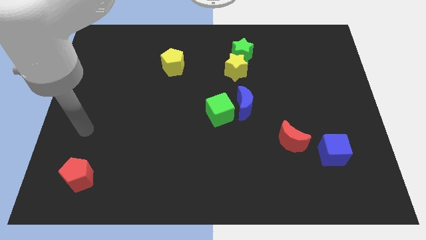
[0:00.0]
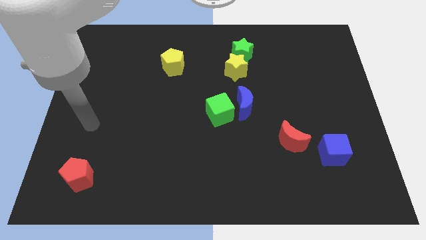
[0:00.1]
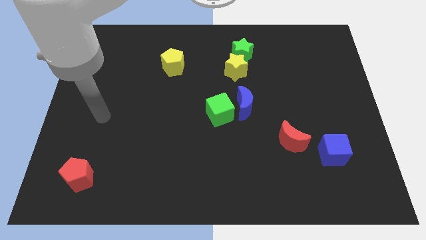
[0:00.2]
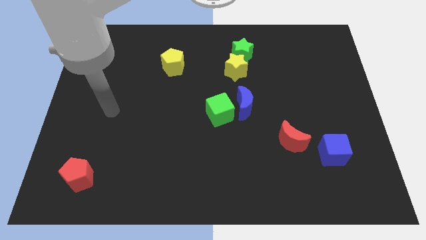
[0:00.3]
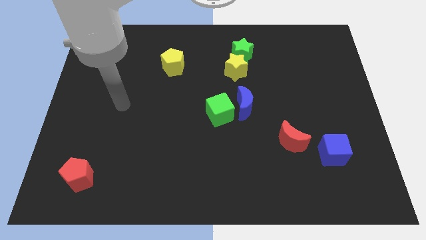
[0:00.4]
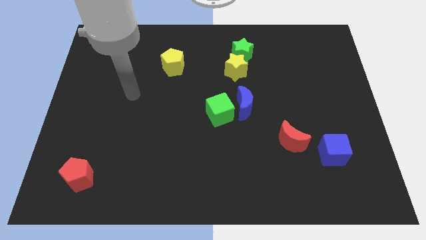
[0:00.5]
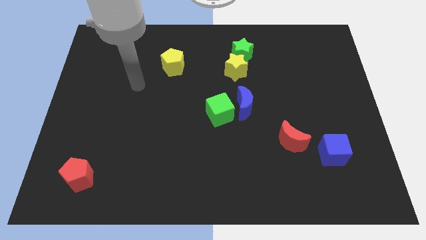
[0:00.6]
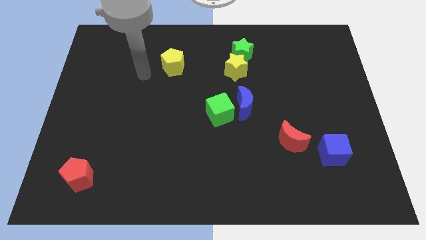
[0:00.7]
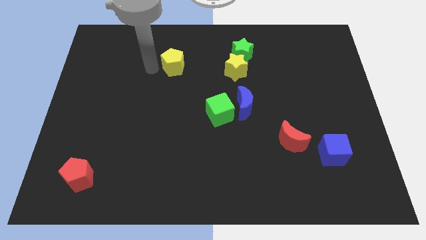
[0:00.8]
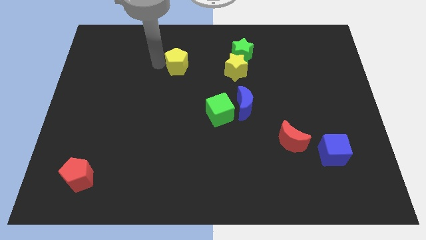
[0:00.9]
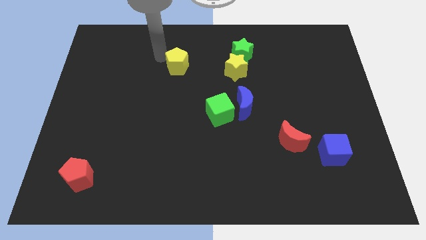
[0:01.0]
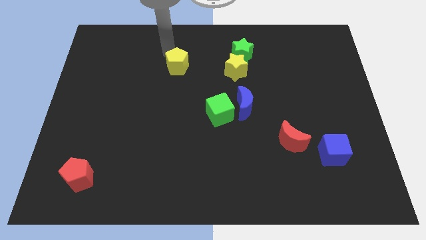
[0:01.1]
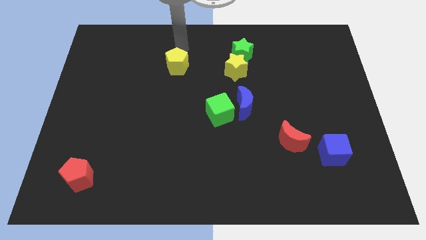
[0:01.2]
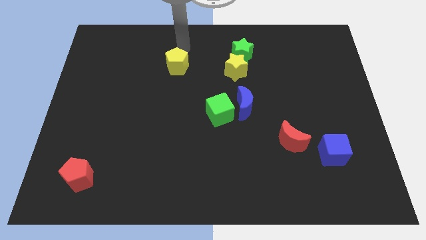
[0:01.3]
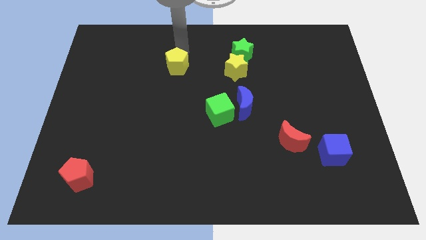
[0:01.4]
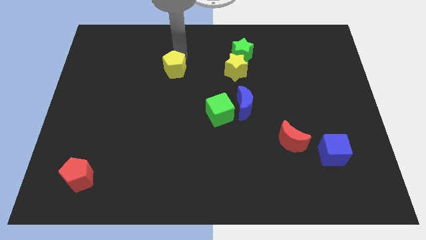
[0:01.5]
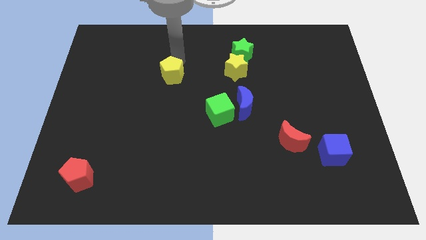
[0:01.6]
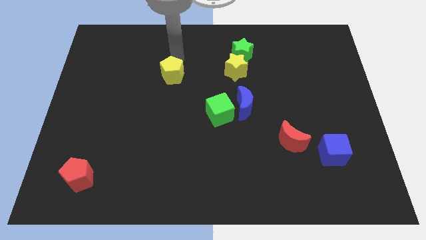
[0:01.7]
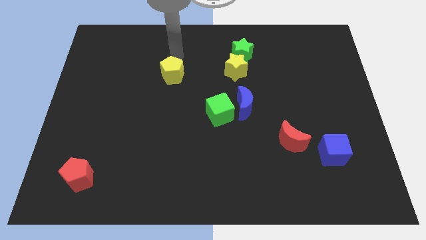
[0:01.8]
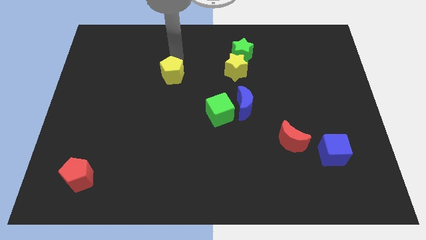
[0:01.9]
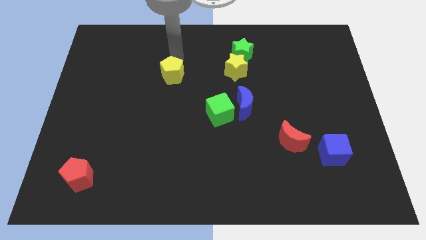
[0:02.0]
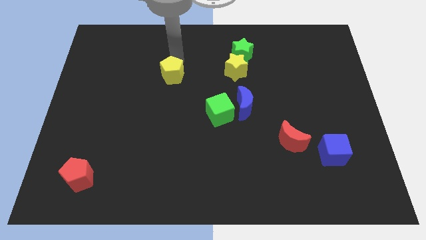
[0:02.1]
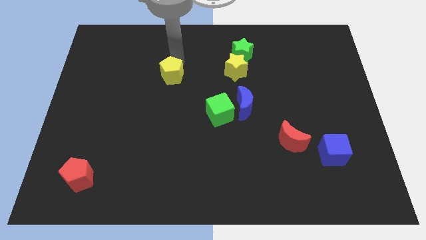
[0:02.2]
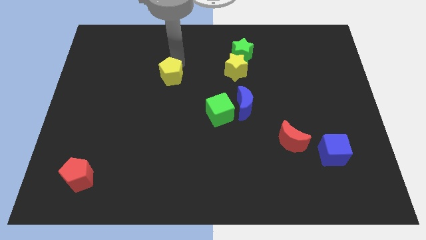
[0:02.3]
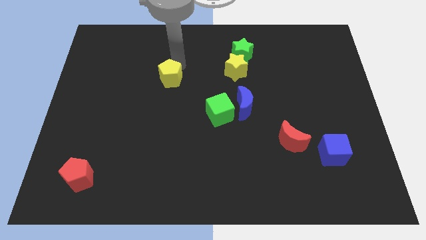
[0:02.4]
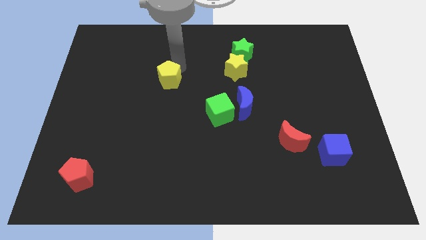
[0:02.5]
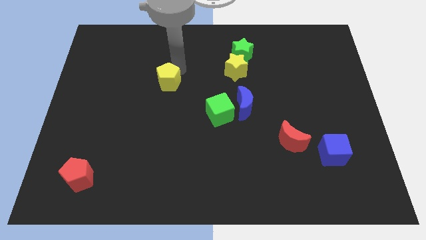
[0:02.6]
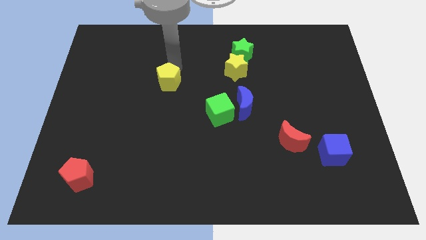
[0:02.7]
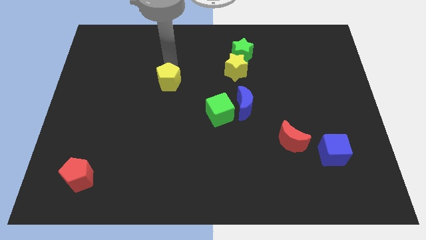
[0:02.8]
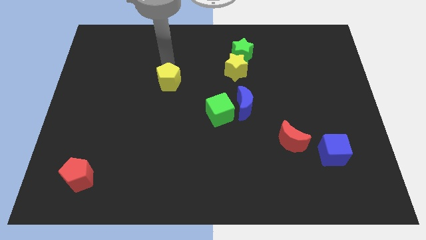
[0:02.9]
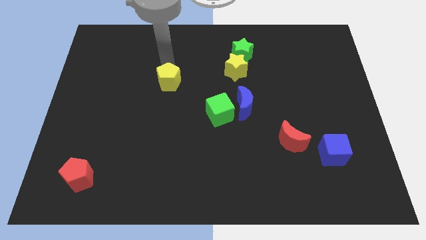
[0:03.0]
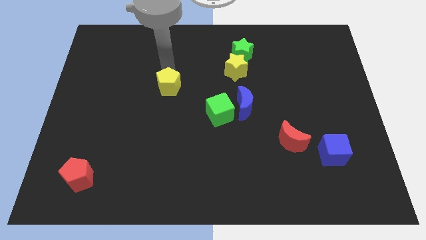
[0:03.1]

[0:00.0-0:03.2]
slightly push the yellow pentagon down

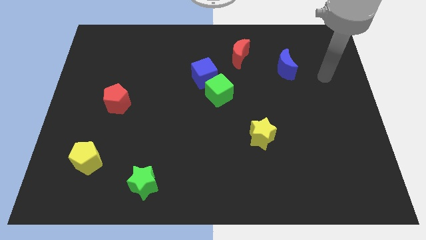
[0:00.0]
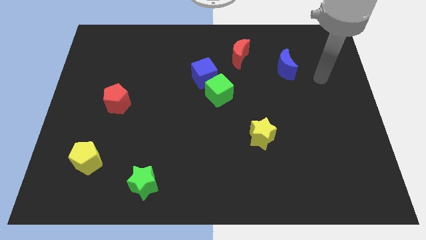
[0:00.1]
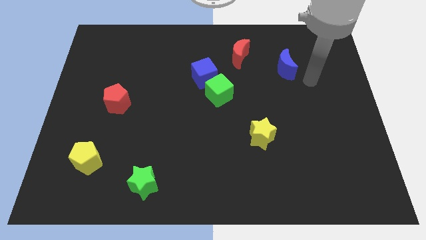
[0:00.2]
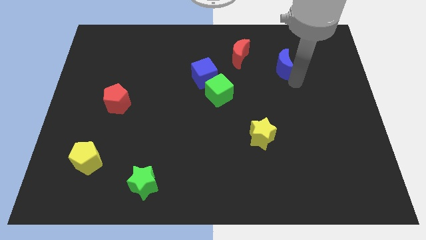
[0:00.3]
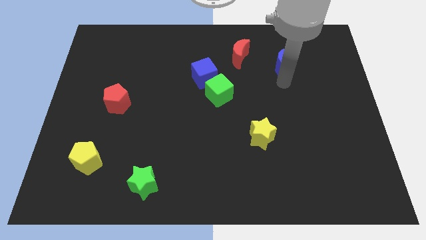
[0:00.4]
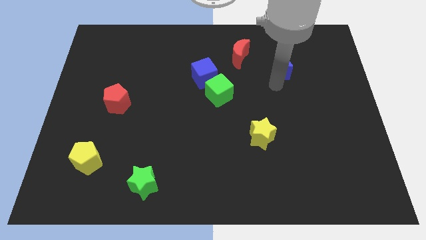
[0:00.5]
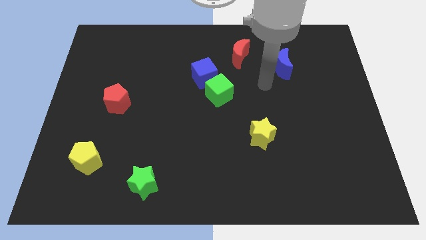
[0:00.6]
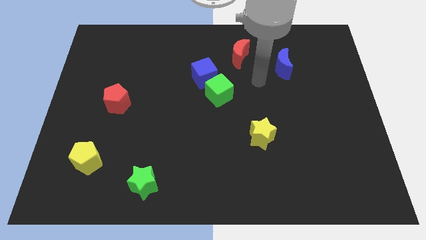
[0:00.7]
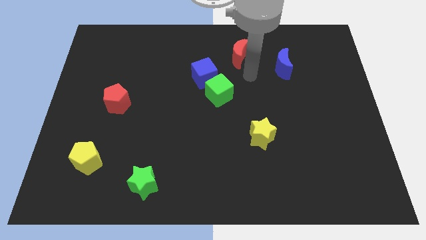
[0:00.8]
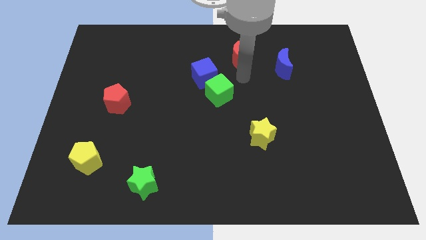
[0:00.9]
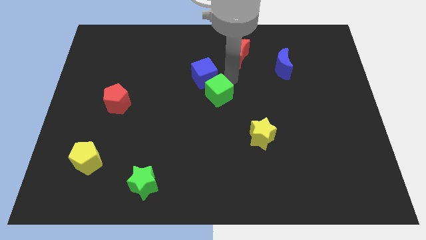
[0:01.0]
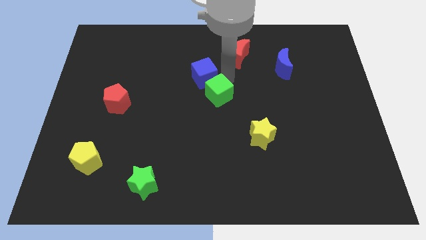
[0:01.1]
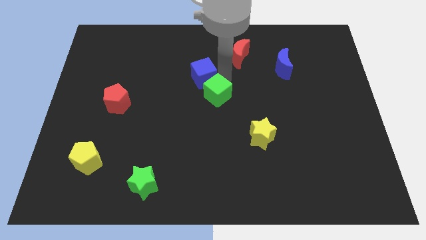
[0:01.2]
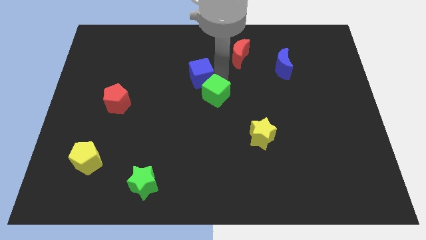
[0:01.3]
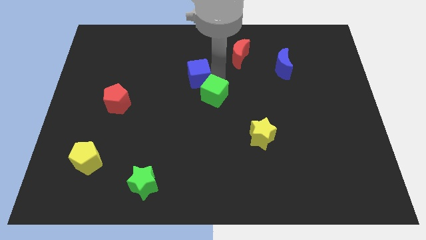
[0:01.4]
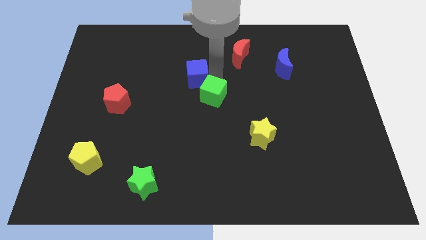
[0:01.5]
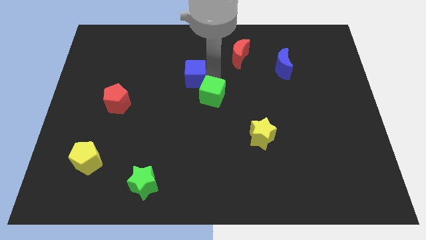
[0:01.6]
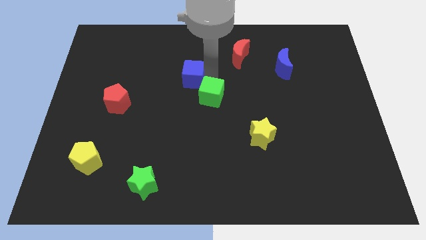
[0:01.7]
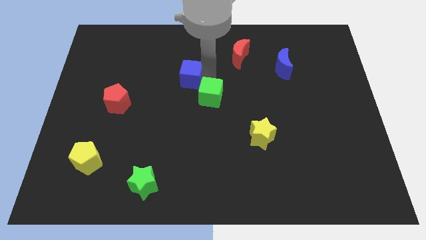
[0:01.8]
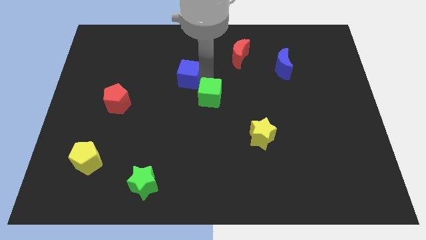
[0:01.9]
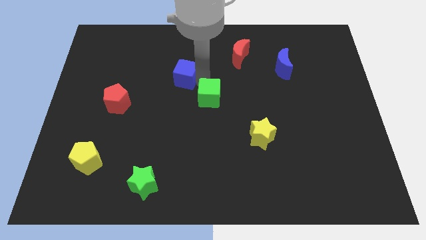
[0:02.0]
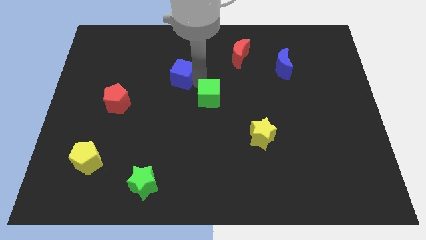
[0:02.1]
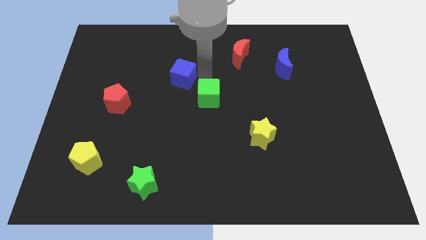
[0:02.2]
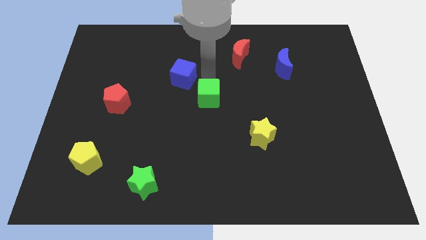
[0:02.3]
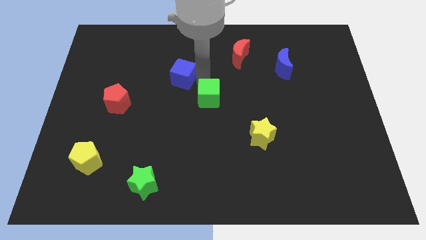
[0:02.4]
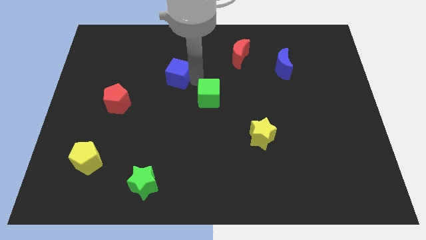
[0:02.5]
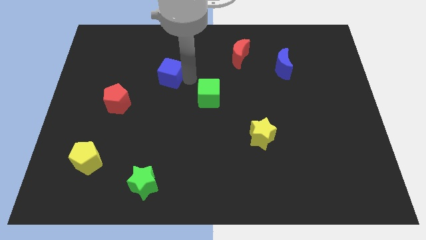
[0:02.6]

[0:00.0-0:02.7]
move the blue cube a little bit to the left

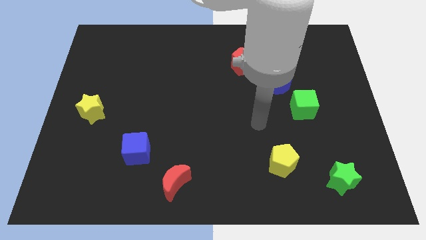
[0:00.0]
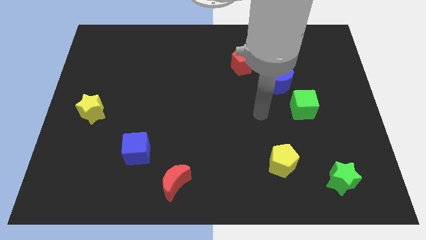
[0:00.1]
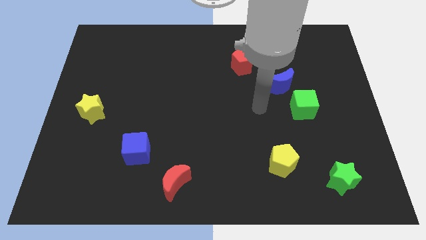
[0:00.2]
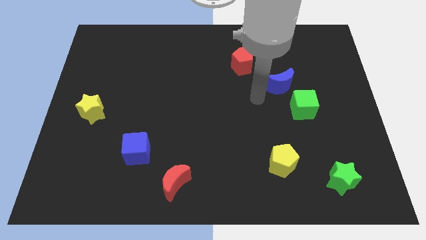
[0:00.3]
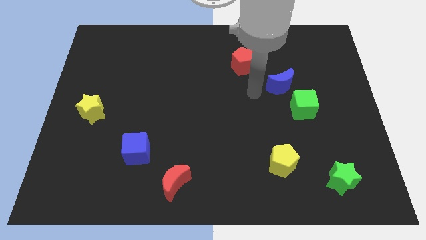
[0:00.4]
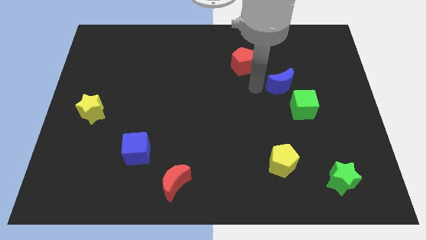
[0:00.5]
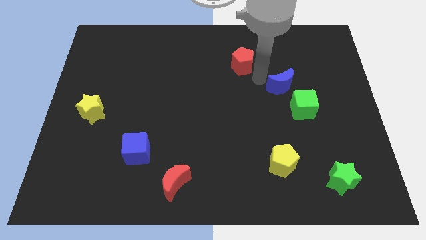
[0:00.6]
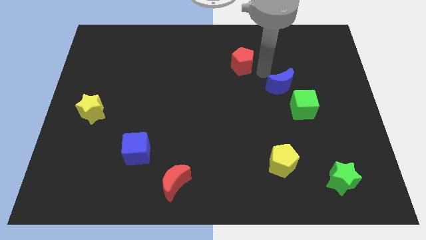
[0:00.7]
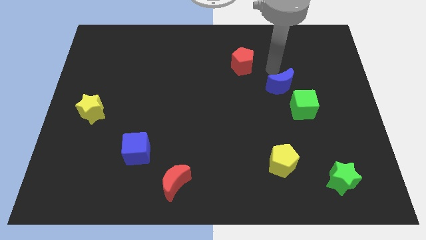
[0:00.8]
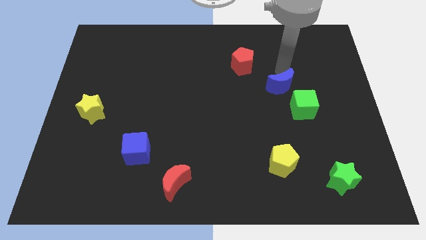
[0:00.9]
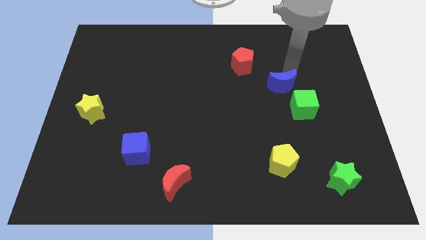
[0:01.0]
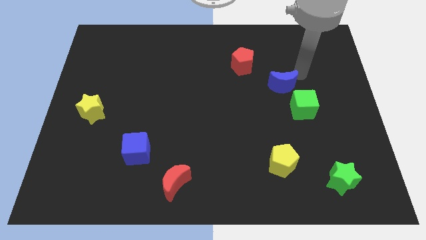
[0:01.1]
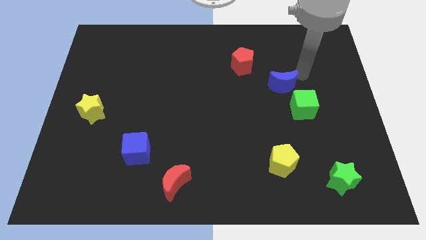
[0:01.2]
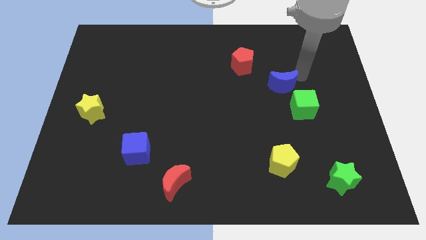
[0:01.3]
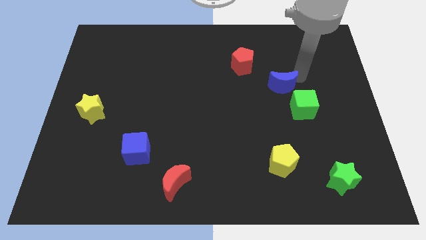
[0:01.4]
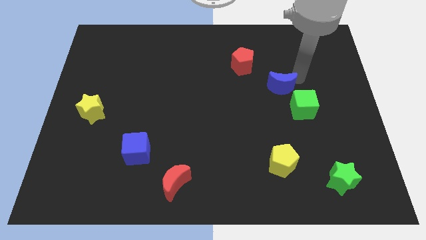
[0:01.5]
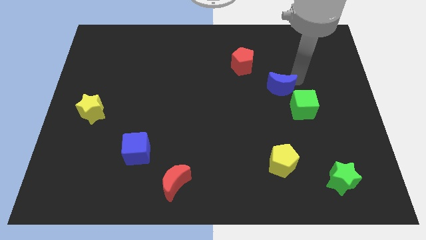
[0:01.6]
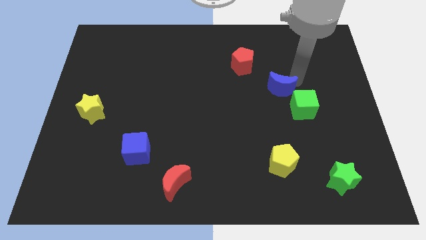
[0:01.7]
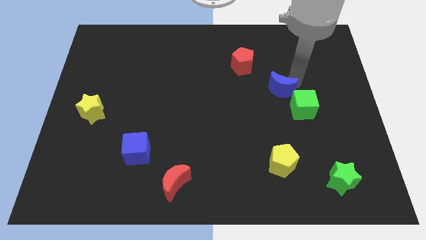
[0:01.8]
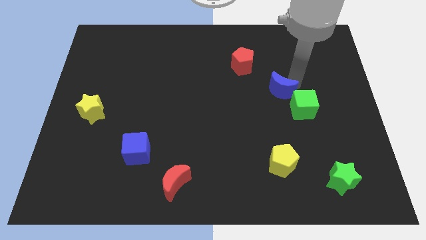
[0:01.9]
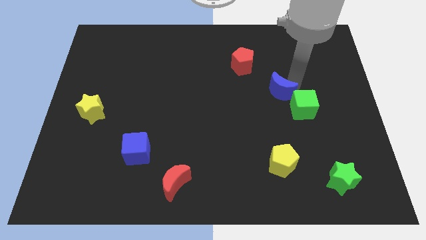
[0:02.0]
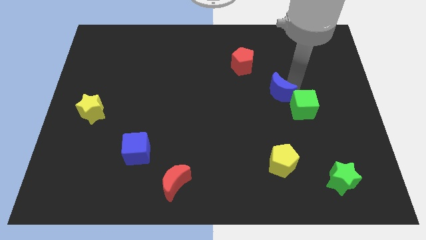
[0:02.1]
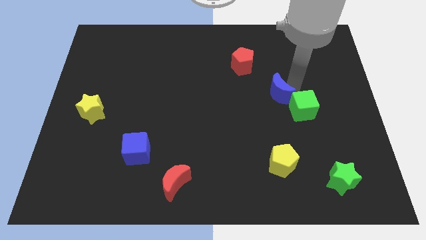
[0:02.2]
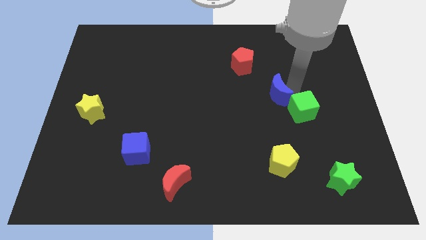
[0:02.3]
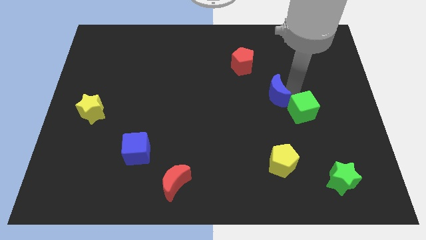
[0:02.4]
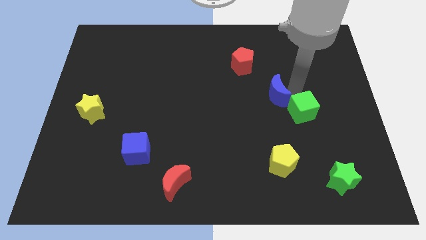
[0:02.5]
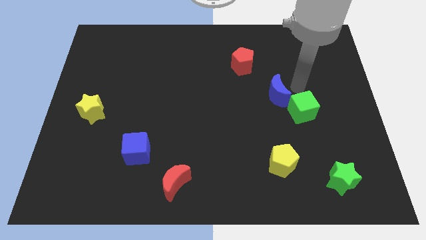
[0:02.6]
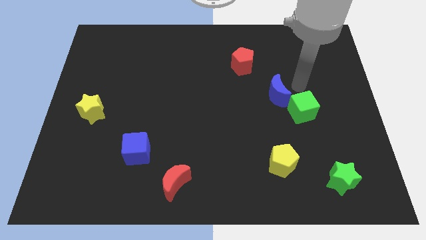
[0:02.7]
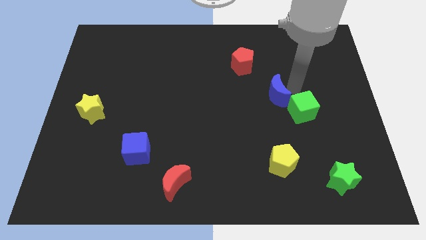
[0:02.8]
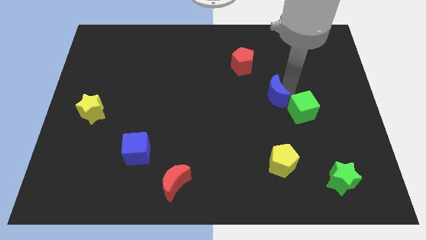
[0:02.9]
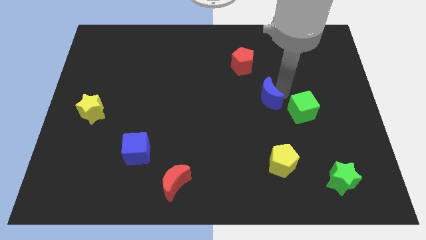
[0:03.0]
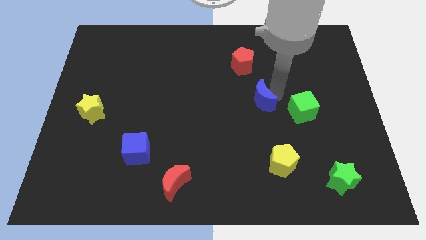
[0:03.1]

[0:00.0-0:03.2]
move the blue moon downwards and to the left diagonally a bit
